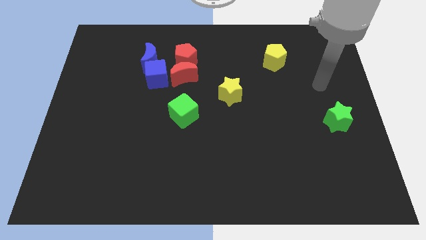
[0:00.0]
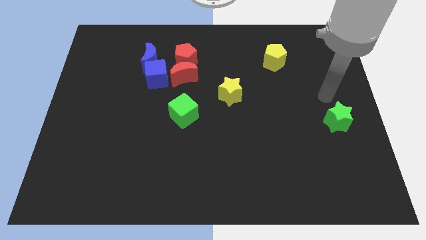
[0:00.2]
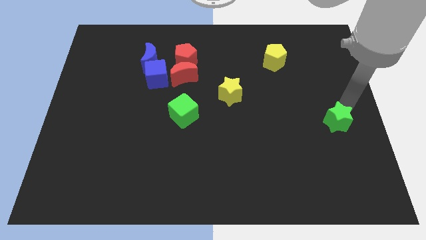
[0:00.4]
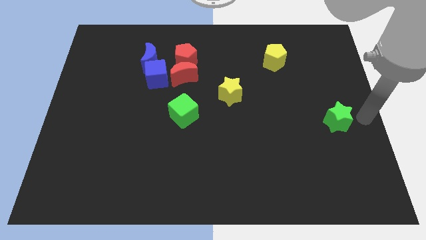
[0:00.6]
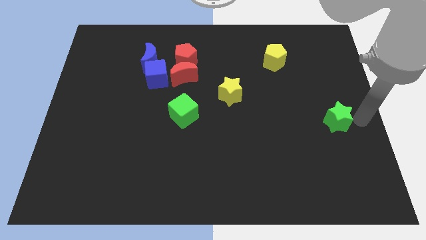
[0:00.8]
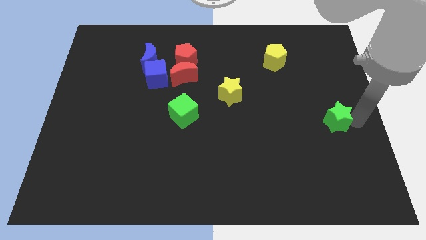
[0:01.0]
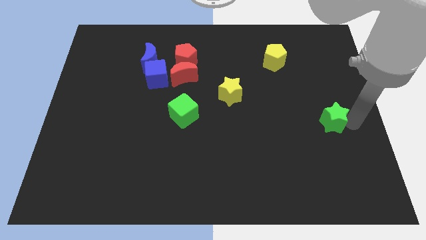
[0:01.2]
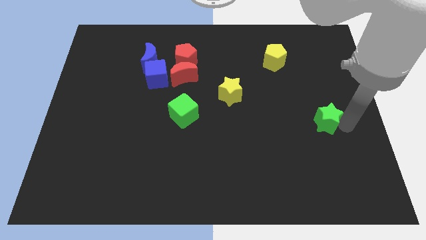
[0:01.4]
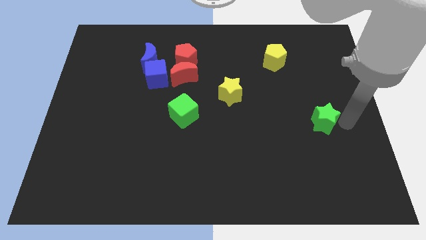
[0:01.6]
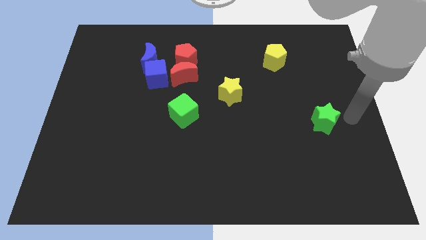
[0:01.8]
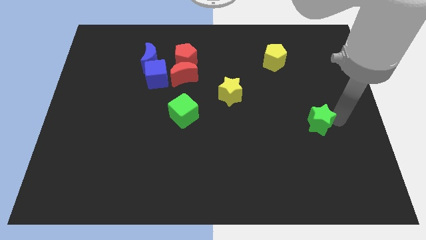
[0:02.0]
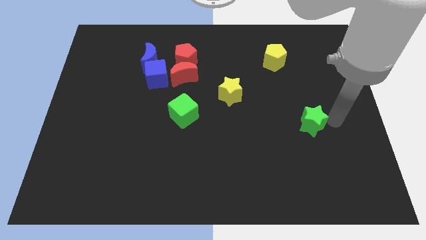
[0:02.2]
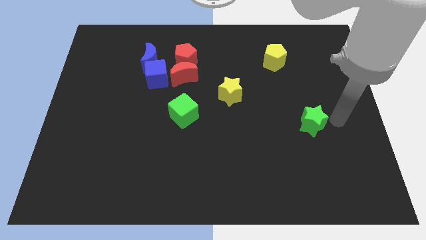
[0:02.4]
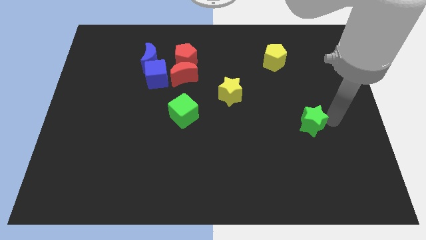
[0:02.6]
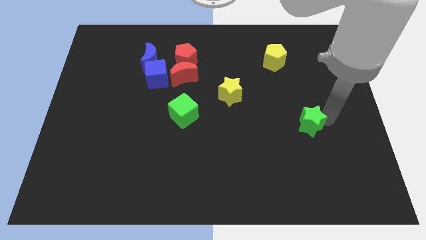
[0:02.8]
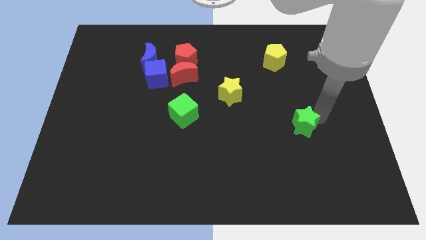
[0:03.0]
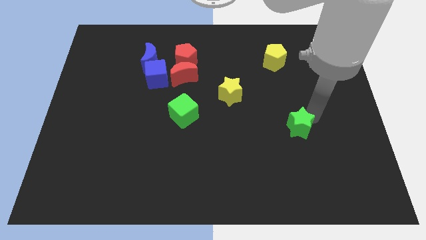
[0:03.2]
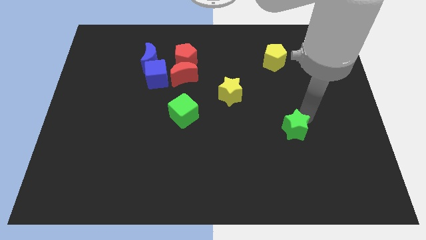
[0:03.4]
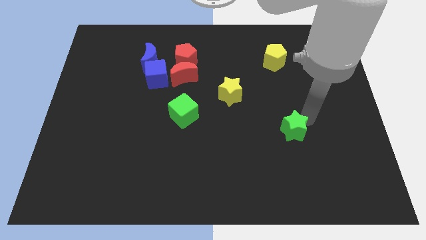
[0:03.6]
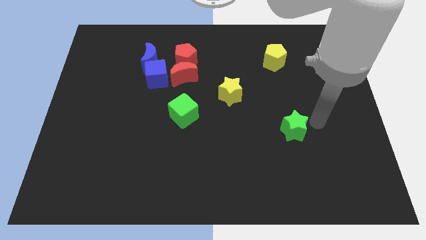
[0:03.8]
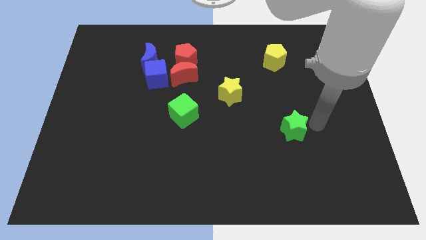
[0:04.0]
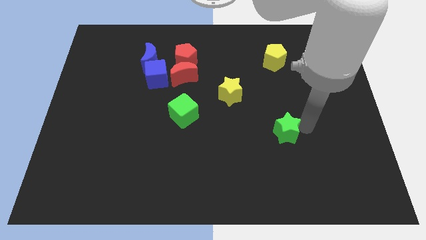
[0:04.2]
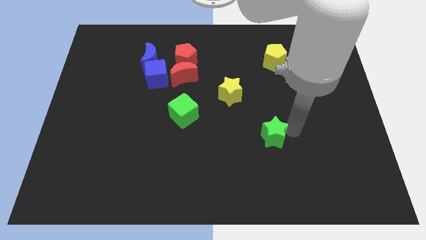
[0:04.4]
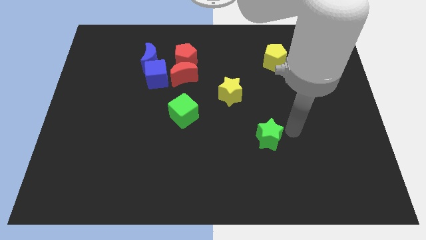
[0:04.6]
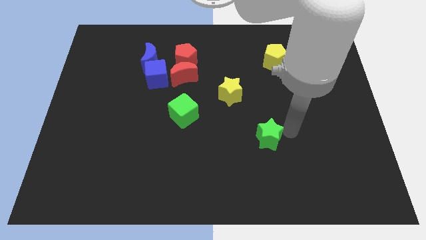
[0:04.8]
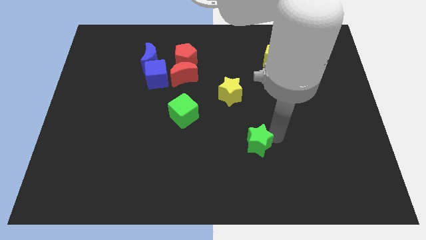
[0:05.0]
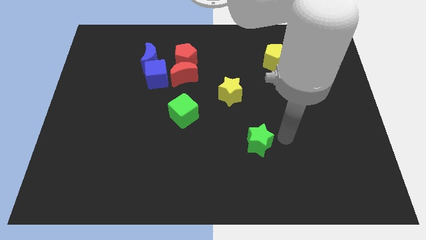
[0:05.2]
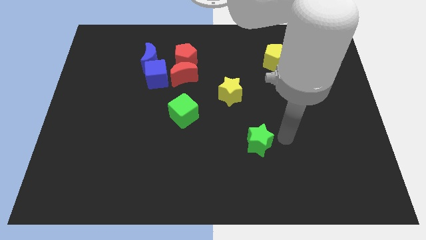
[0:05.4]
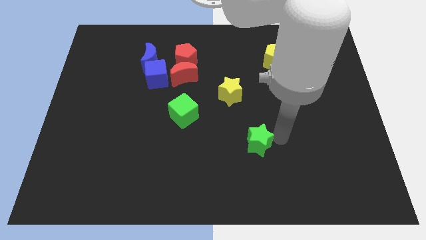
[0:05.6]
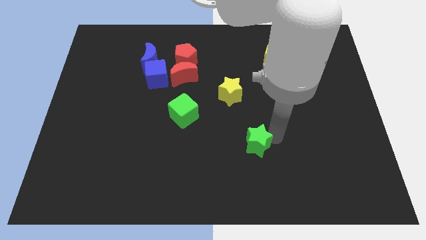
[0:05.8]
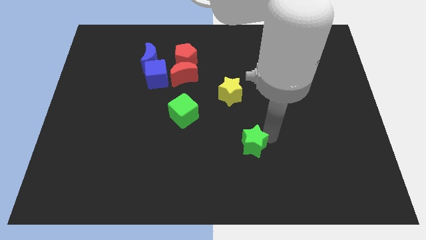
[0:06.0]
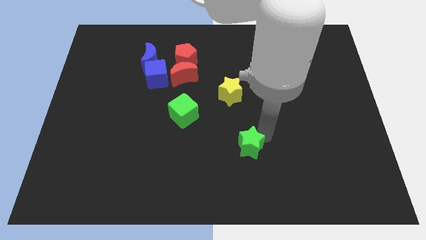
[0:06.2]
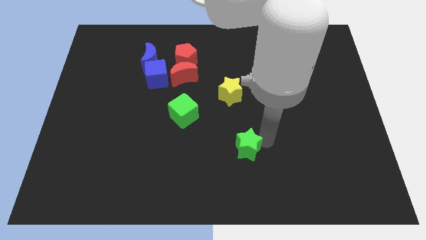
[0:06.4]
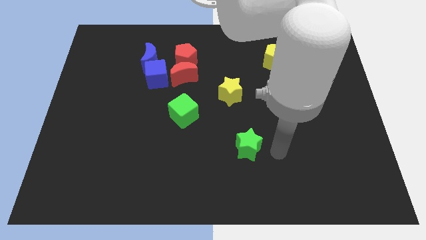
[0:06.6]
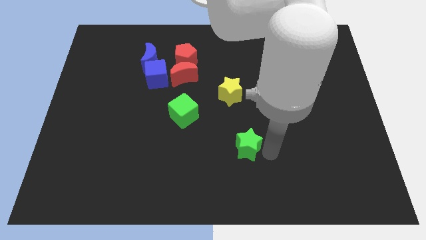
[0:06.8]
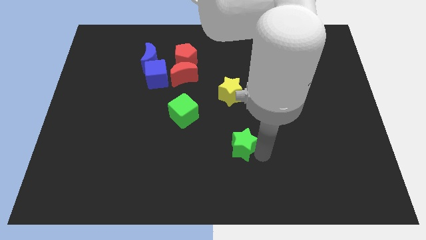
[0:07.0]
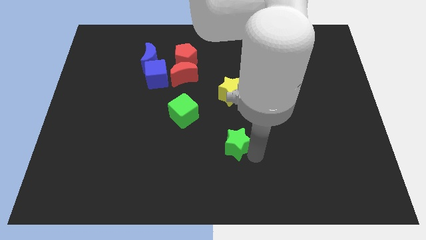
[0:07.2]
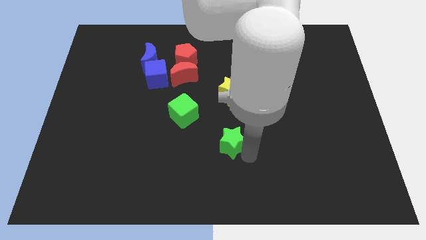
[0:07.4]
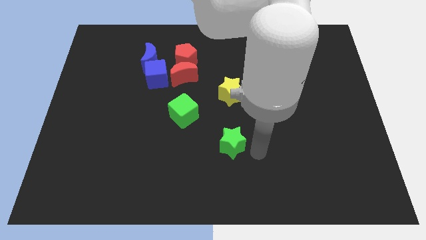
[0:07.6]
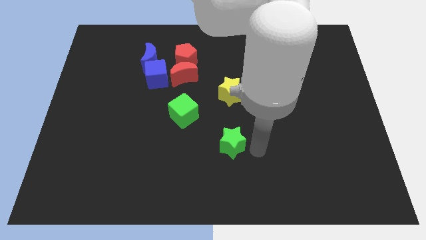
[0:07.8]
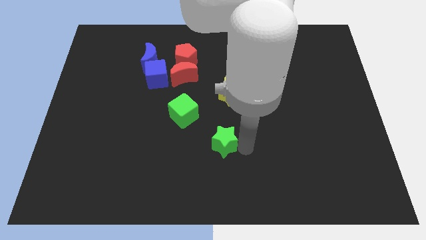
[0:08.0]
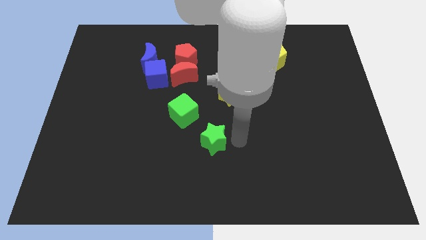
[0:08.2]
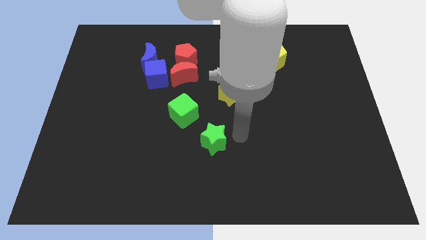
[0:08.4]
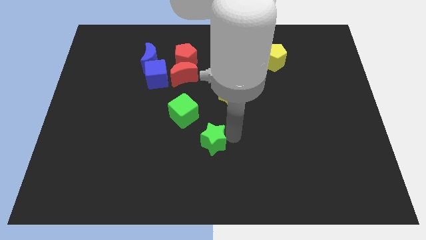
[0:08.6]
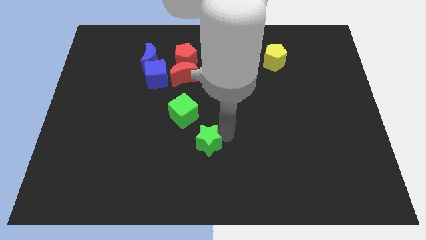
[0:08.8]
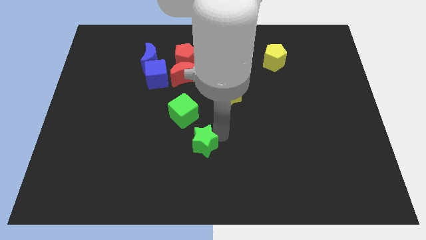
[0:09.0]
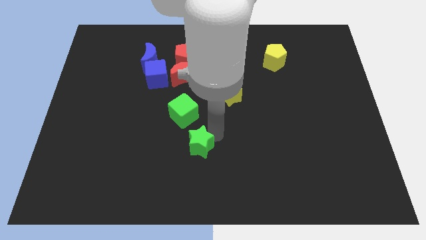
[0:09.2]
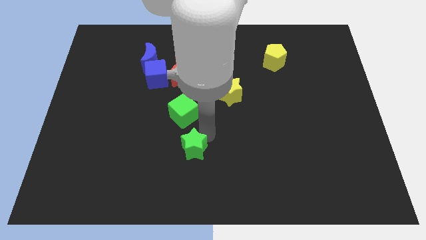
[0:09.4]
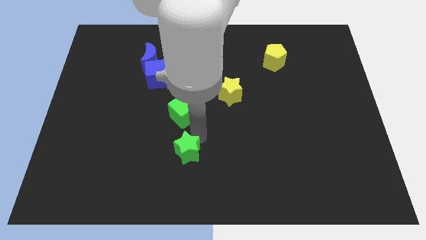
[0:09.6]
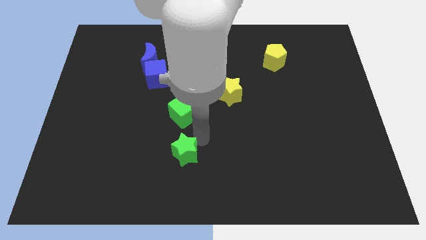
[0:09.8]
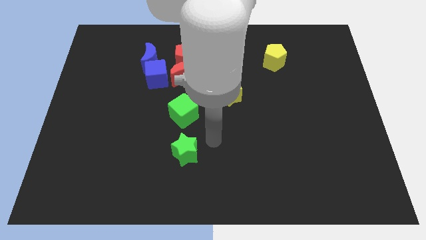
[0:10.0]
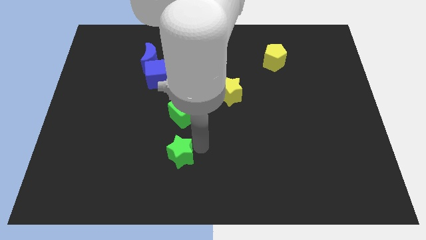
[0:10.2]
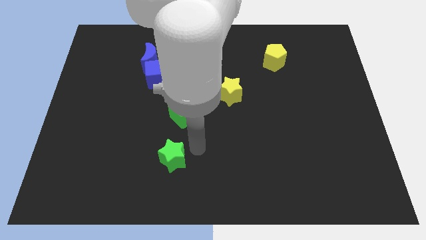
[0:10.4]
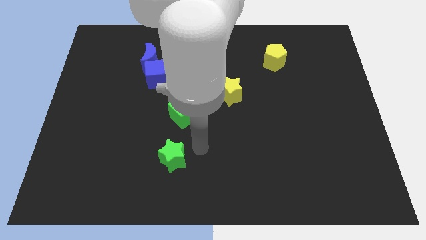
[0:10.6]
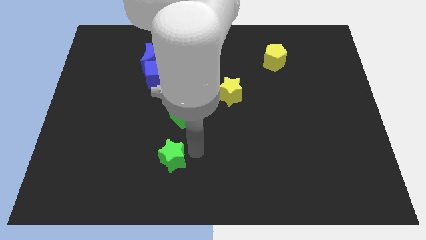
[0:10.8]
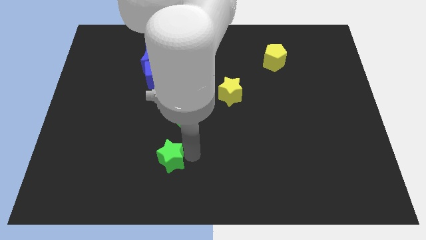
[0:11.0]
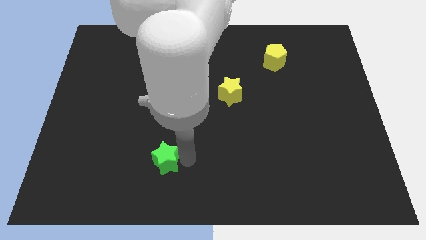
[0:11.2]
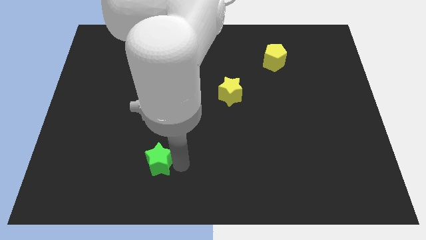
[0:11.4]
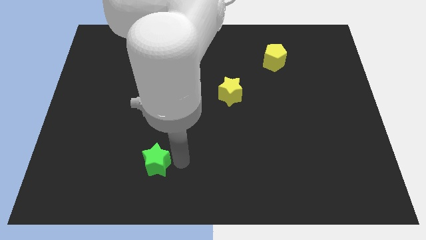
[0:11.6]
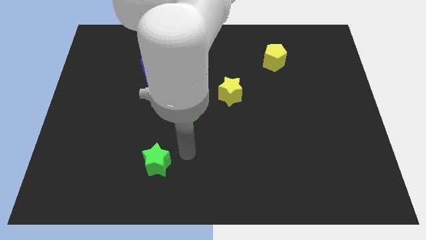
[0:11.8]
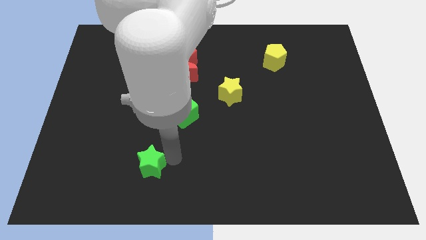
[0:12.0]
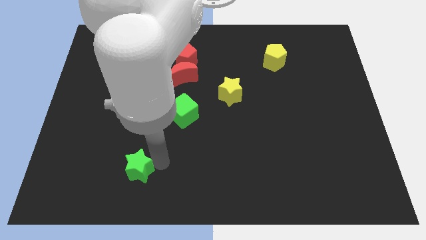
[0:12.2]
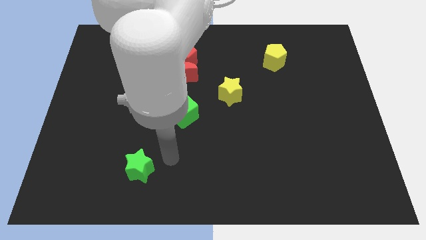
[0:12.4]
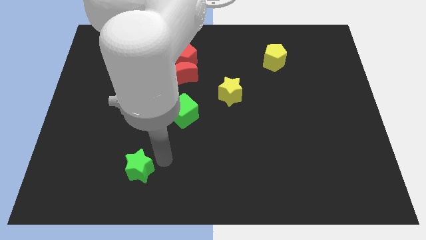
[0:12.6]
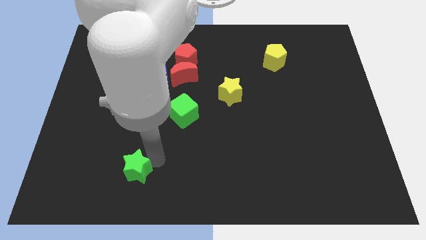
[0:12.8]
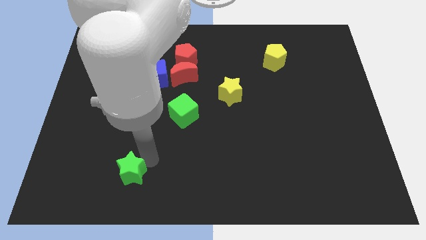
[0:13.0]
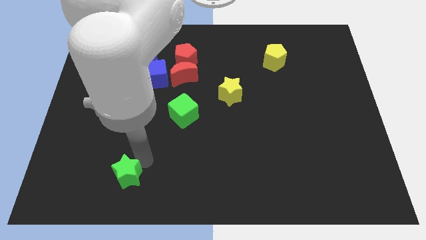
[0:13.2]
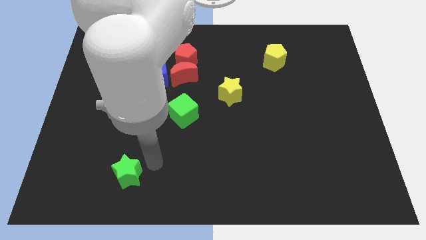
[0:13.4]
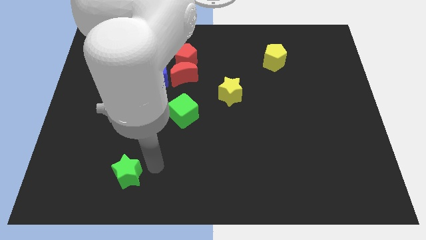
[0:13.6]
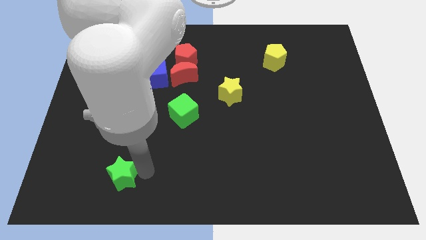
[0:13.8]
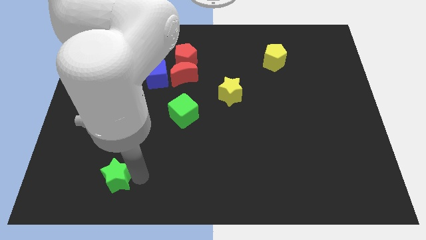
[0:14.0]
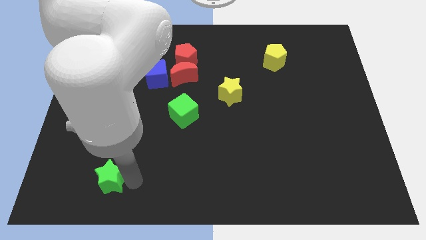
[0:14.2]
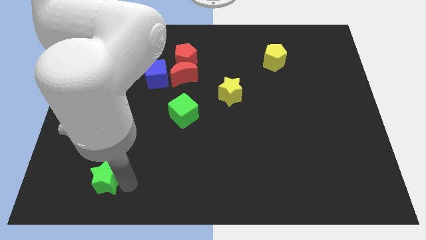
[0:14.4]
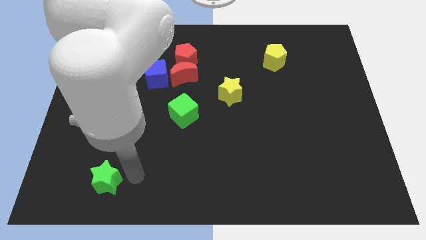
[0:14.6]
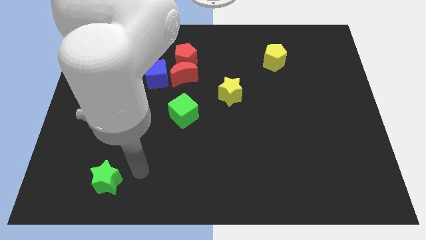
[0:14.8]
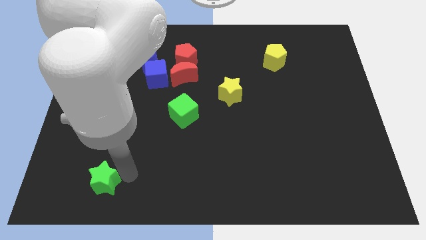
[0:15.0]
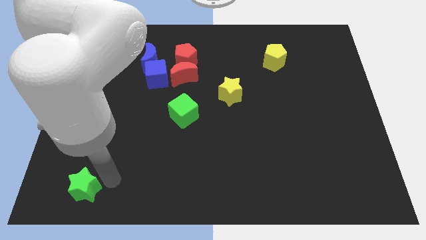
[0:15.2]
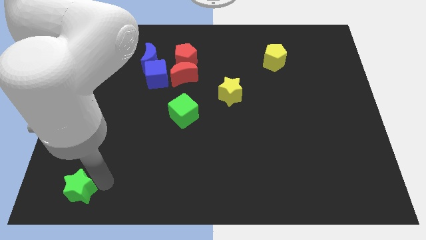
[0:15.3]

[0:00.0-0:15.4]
put the green star to the bottom left
